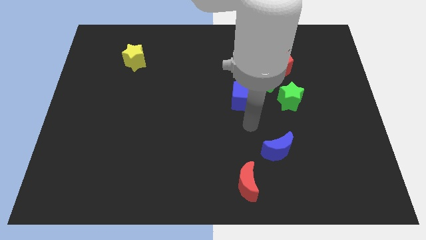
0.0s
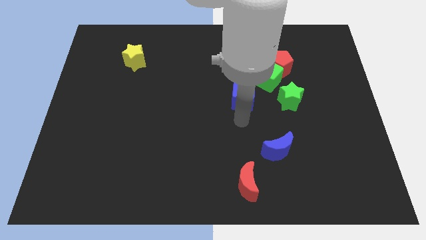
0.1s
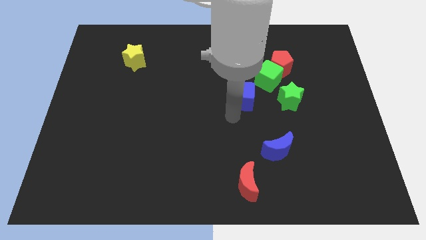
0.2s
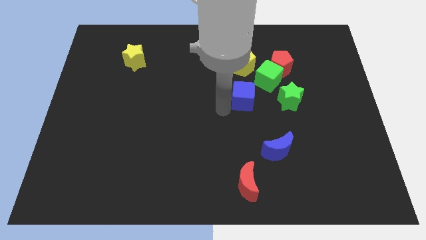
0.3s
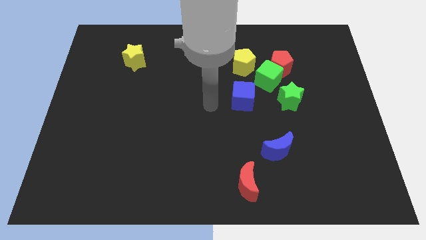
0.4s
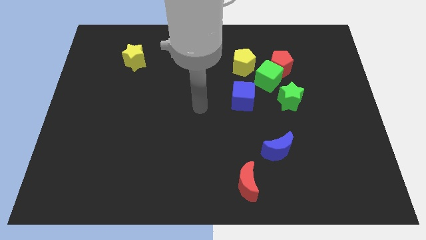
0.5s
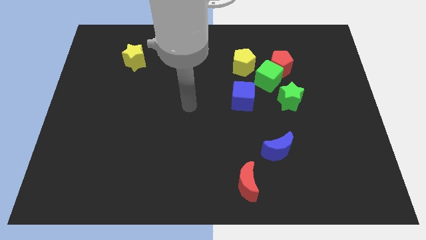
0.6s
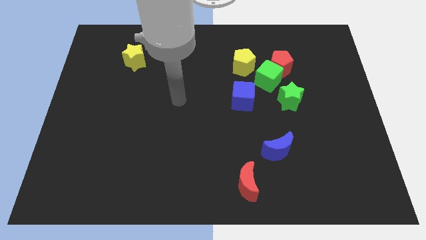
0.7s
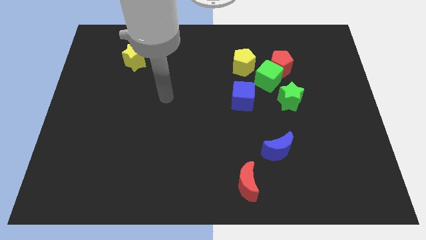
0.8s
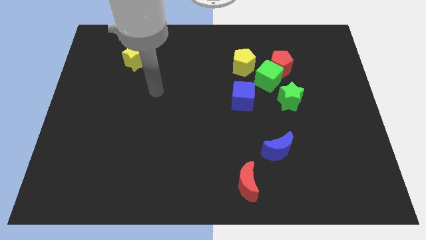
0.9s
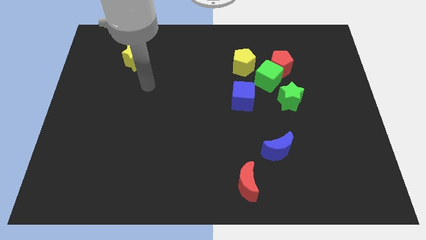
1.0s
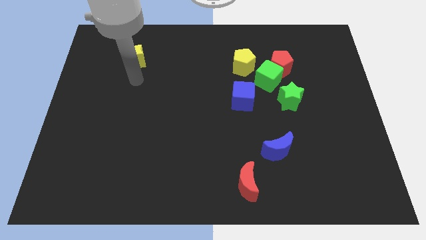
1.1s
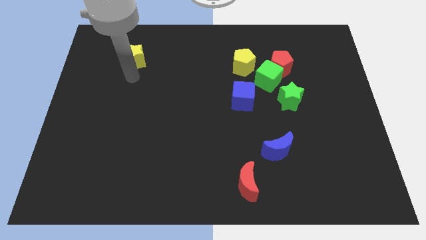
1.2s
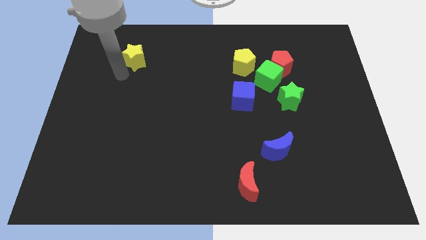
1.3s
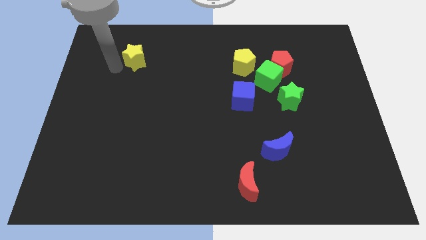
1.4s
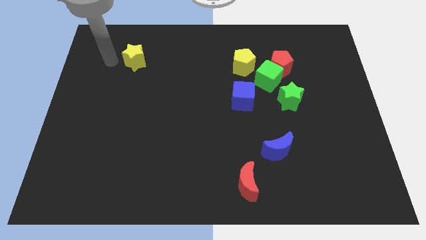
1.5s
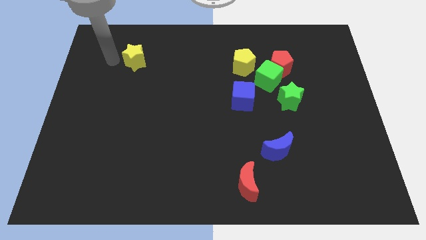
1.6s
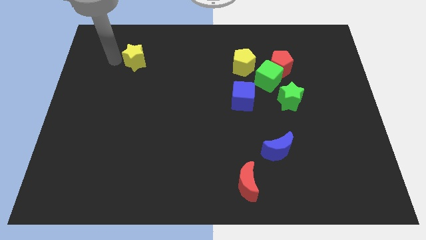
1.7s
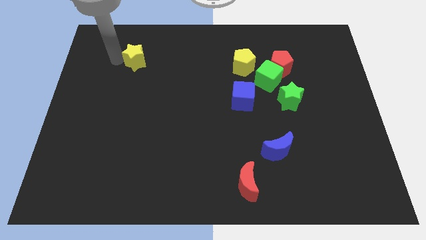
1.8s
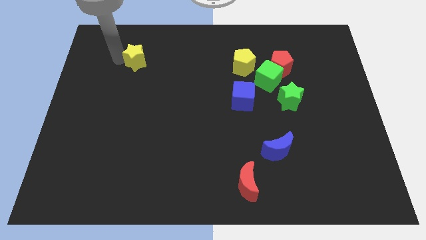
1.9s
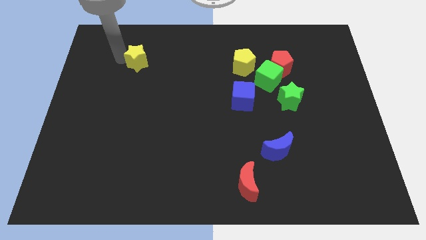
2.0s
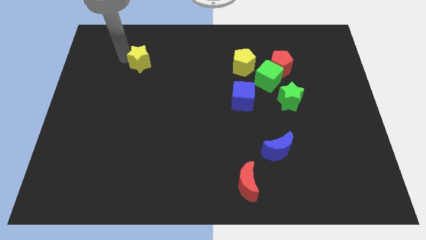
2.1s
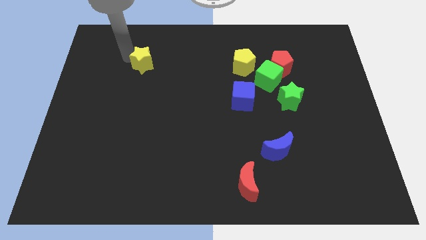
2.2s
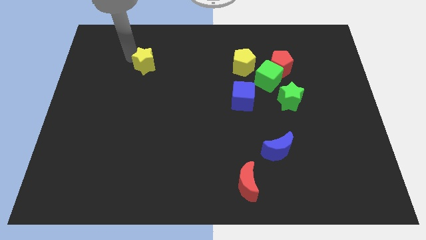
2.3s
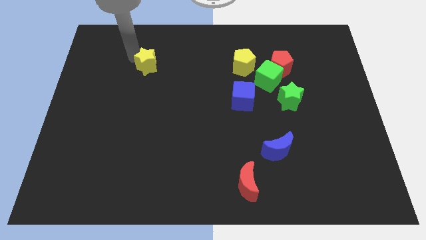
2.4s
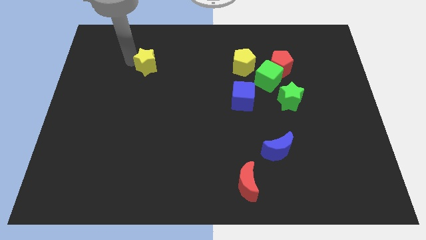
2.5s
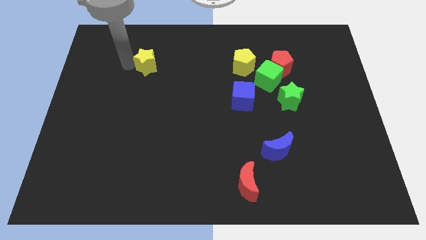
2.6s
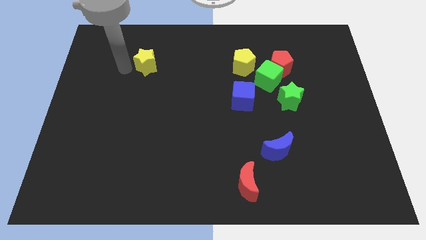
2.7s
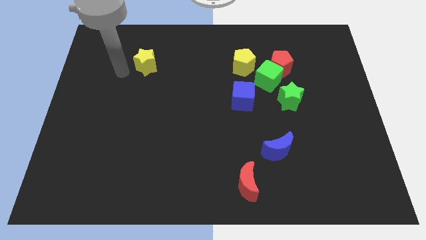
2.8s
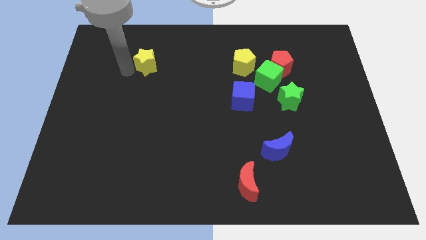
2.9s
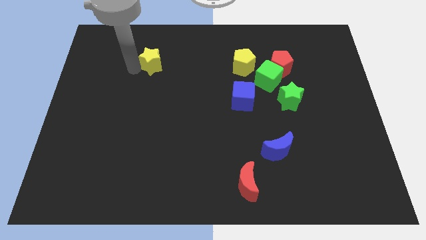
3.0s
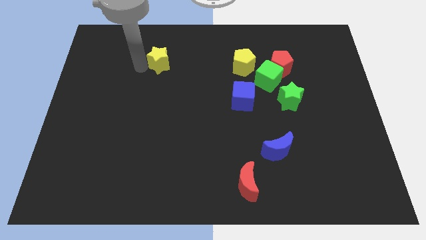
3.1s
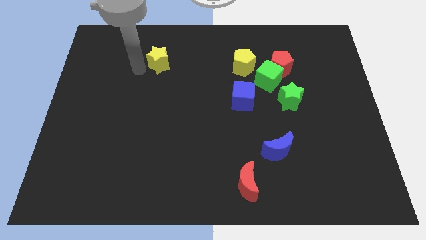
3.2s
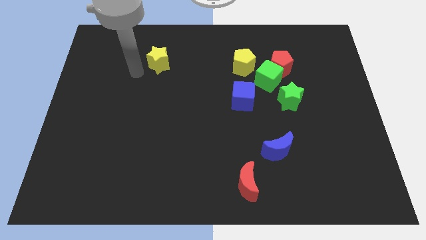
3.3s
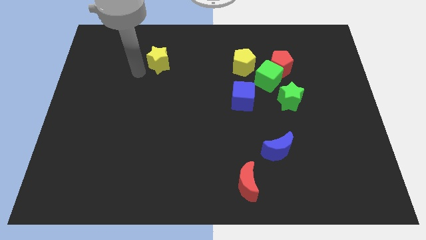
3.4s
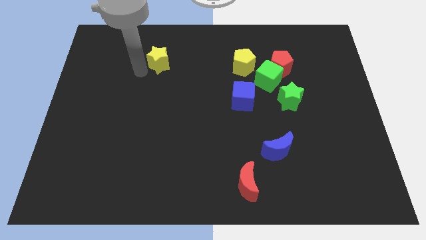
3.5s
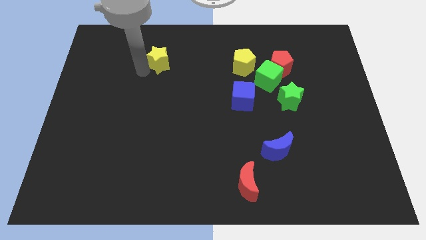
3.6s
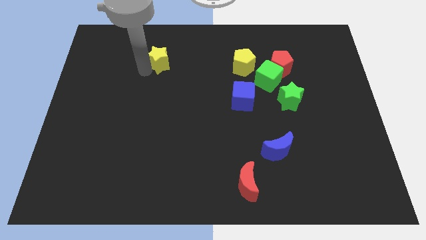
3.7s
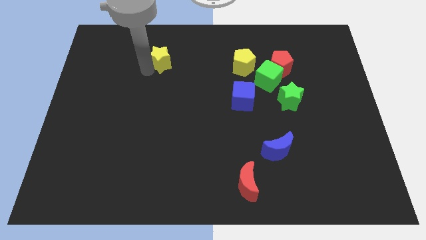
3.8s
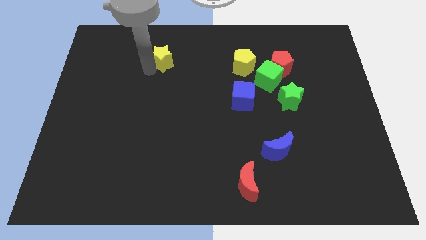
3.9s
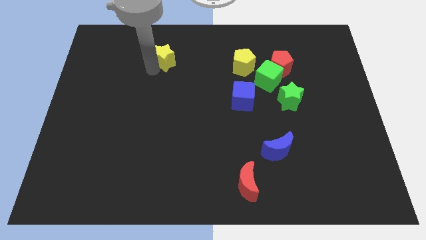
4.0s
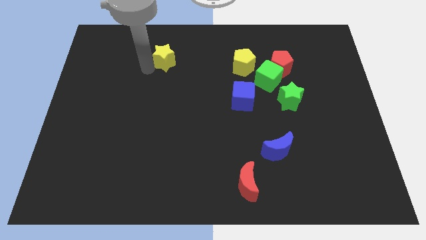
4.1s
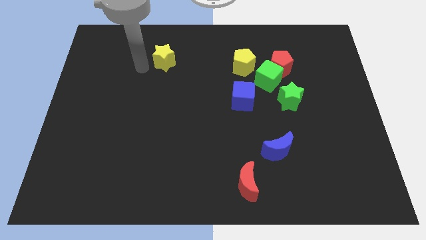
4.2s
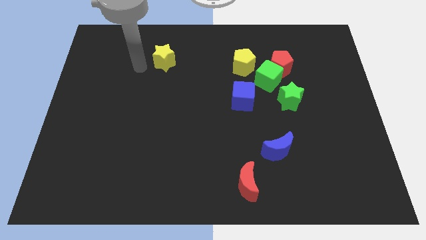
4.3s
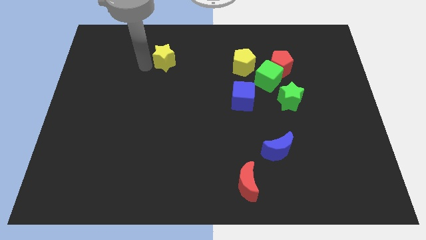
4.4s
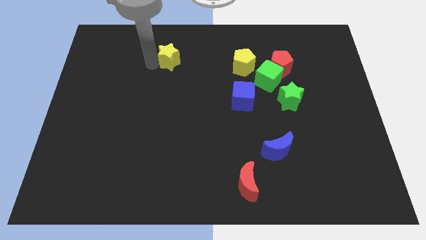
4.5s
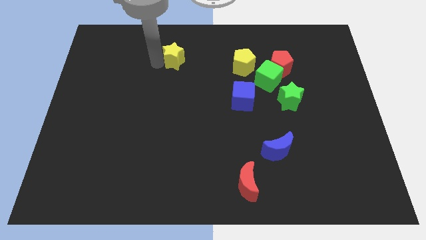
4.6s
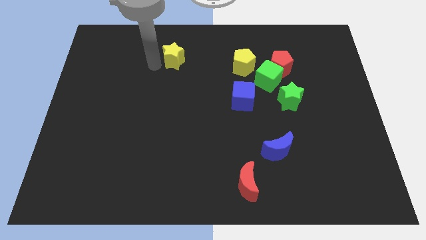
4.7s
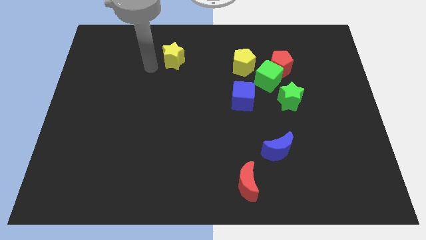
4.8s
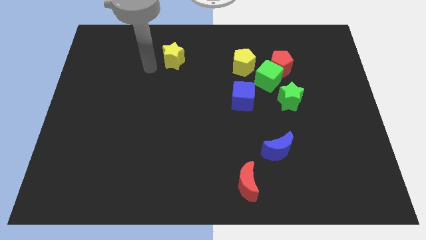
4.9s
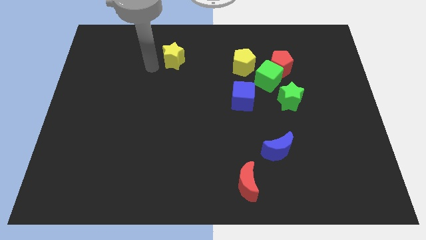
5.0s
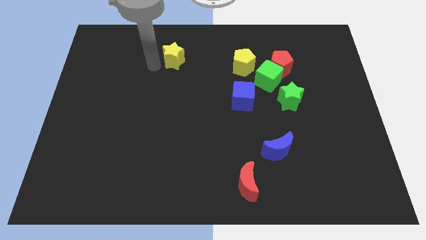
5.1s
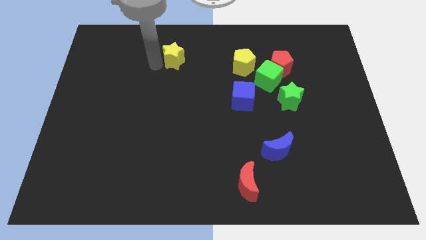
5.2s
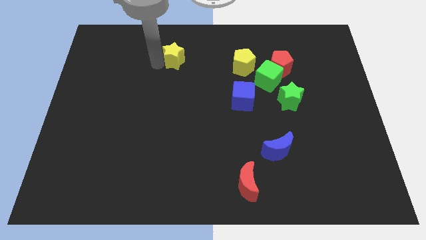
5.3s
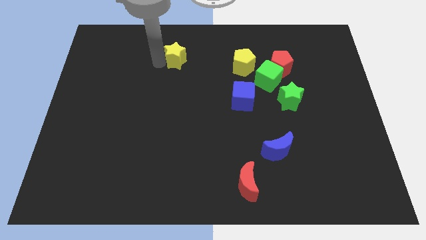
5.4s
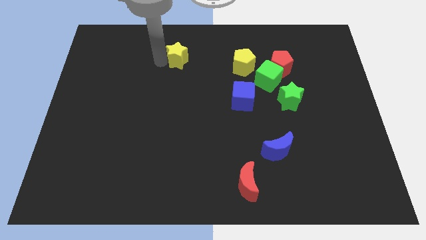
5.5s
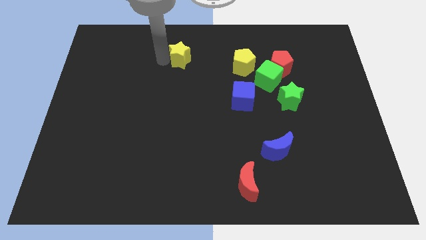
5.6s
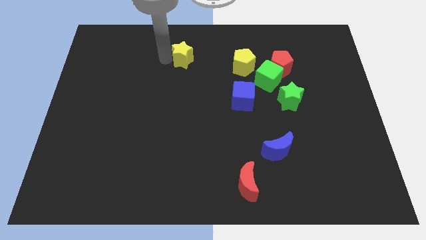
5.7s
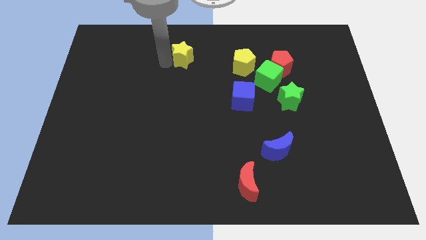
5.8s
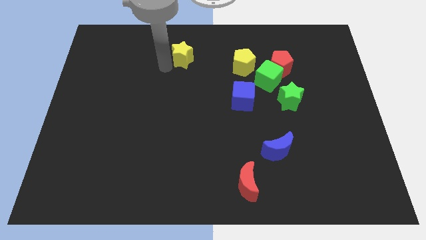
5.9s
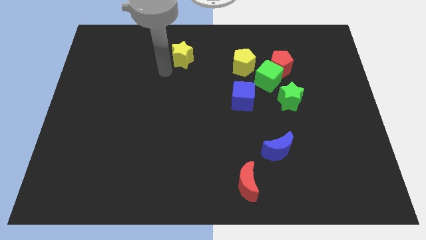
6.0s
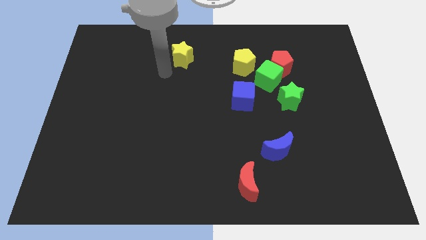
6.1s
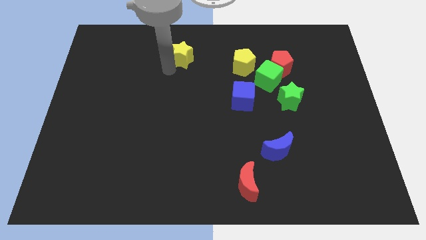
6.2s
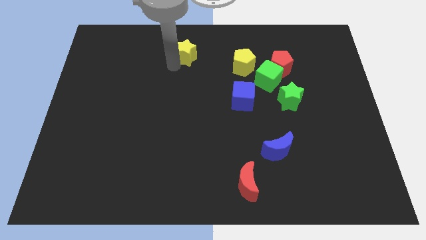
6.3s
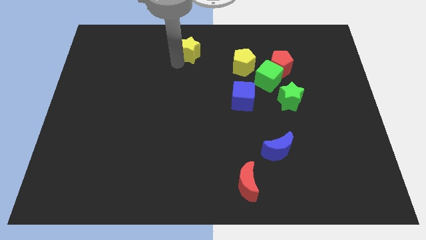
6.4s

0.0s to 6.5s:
push the yellow star to the top
